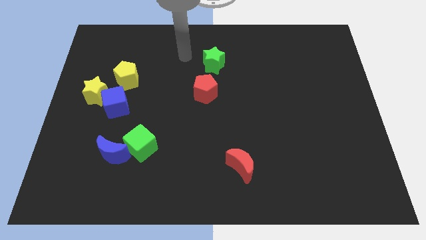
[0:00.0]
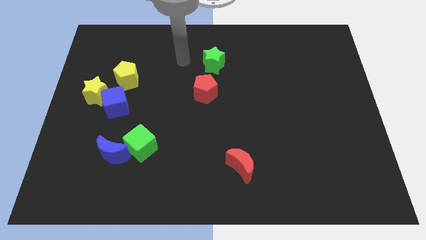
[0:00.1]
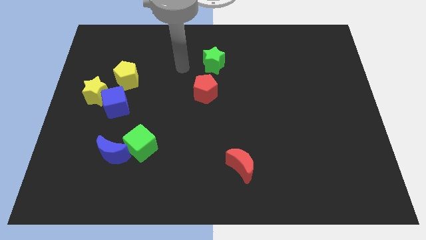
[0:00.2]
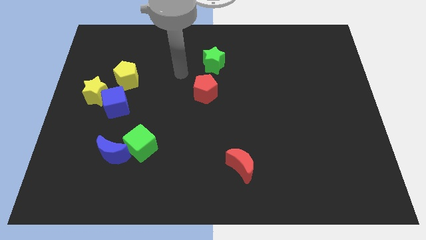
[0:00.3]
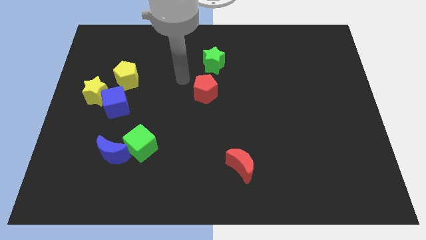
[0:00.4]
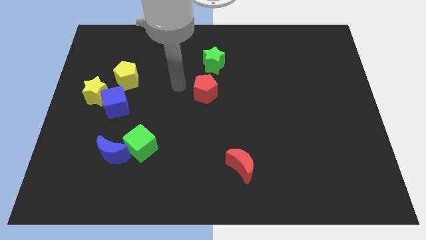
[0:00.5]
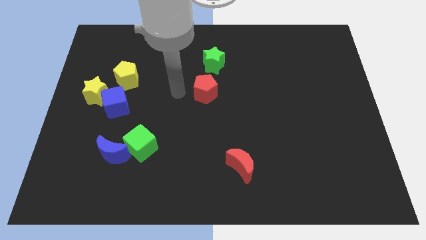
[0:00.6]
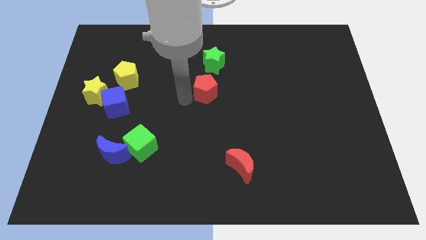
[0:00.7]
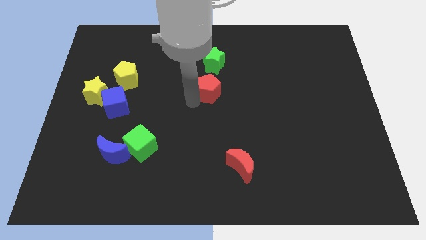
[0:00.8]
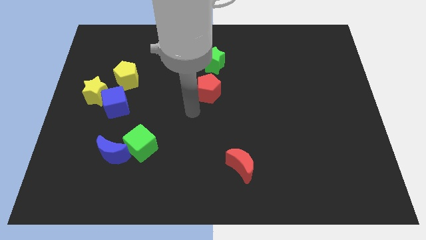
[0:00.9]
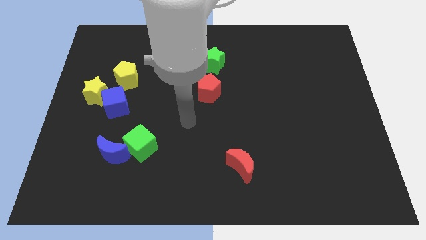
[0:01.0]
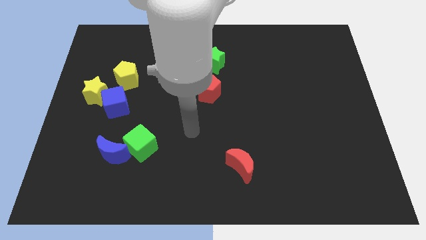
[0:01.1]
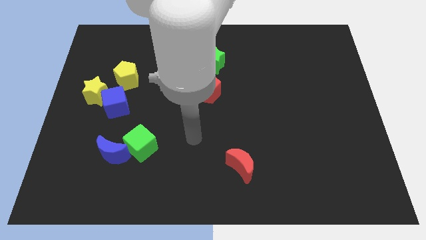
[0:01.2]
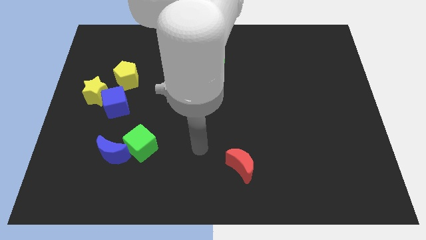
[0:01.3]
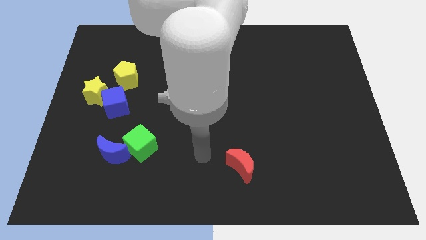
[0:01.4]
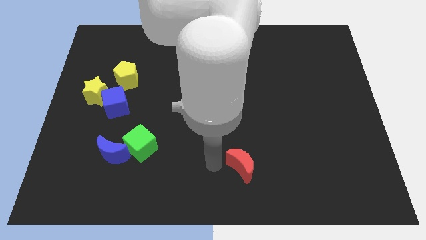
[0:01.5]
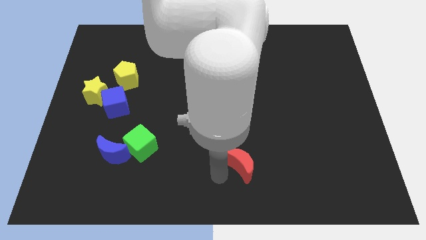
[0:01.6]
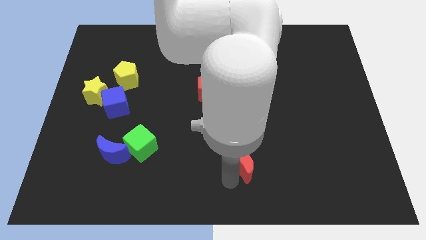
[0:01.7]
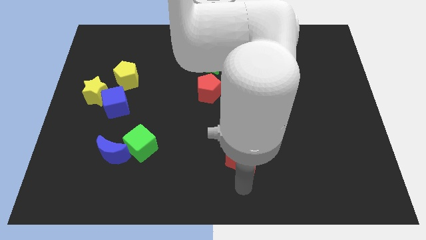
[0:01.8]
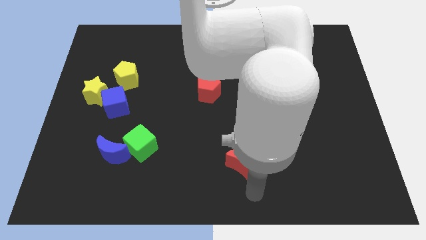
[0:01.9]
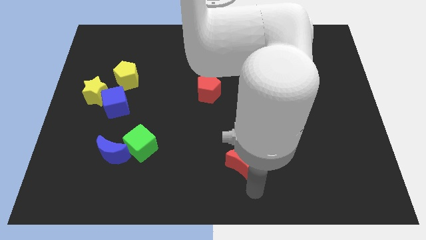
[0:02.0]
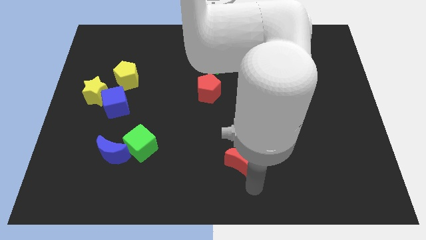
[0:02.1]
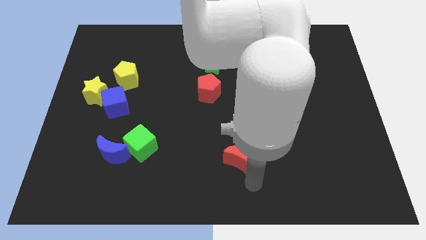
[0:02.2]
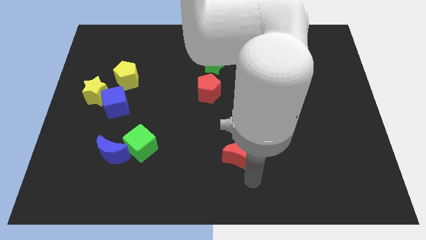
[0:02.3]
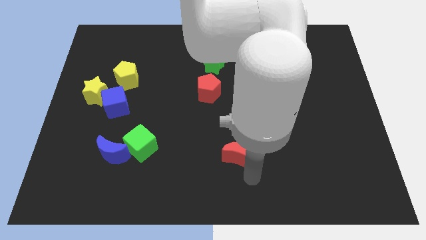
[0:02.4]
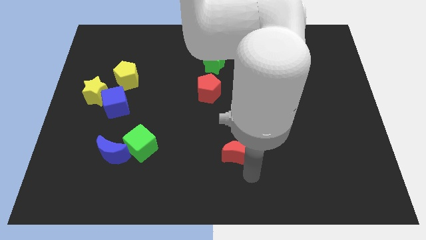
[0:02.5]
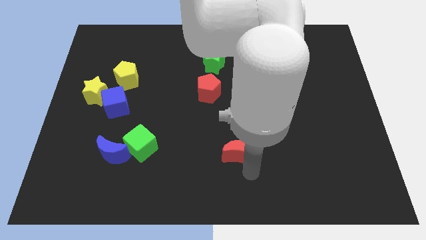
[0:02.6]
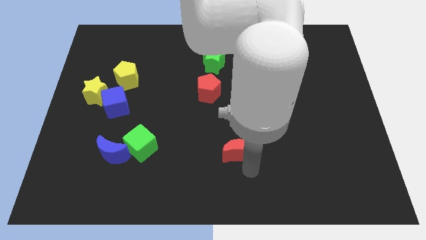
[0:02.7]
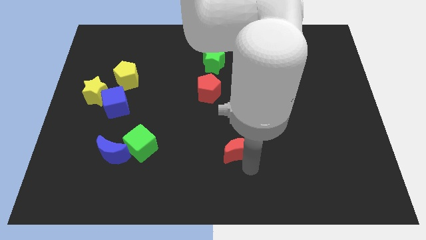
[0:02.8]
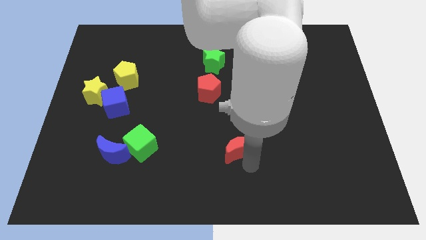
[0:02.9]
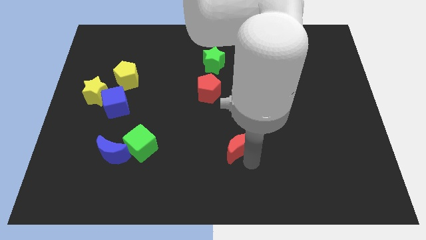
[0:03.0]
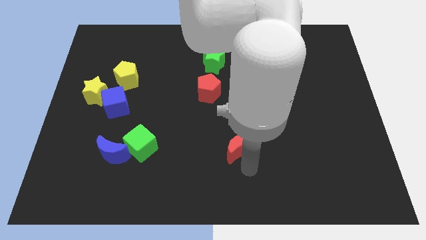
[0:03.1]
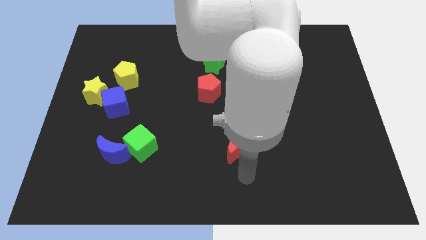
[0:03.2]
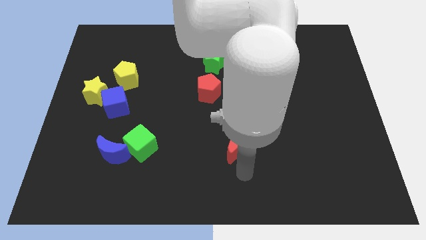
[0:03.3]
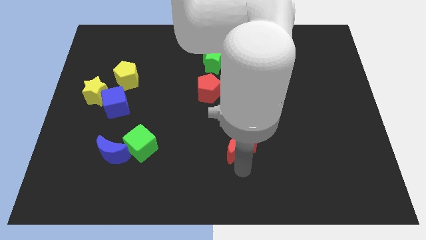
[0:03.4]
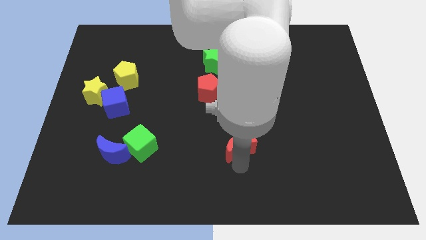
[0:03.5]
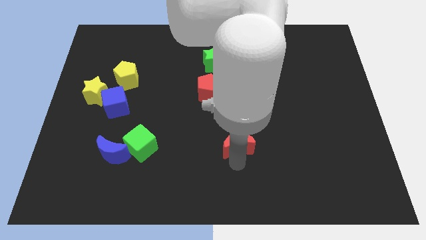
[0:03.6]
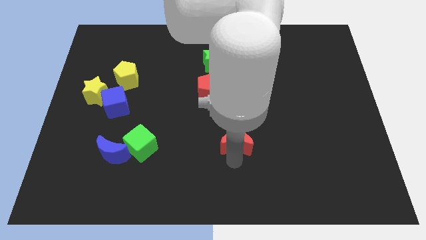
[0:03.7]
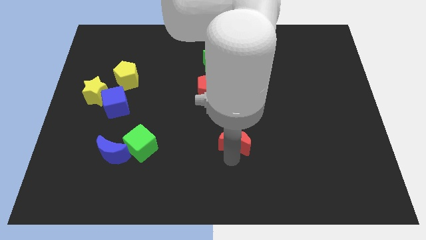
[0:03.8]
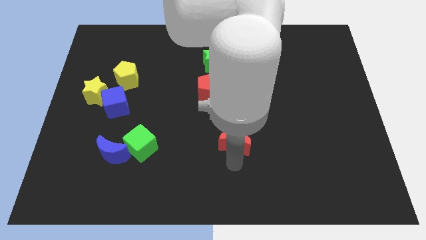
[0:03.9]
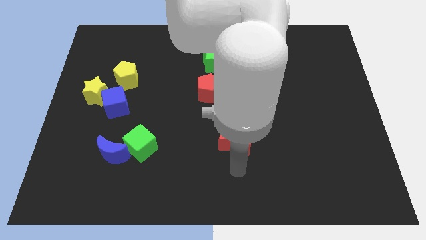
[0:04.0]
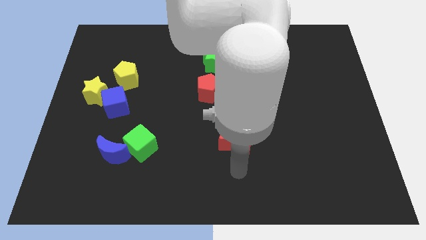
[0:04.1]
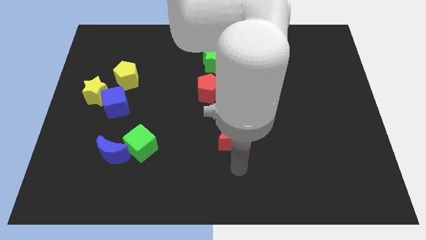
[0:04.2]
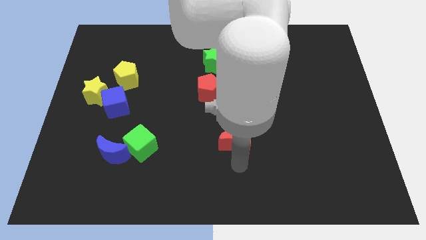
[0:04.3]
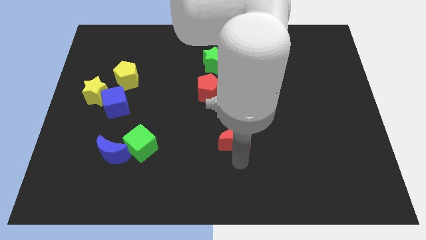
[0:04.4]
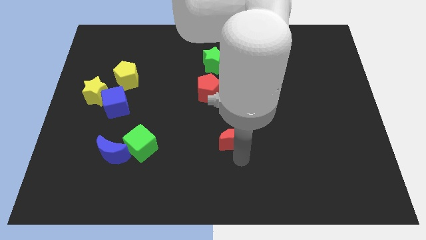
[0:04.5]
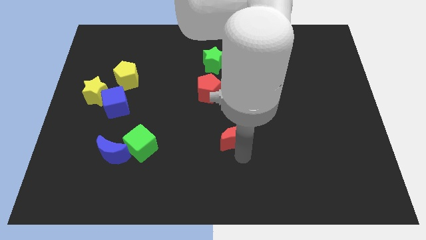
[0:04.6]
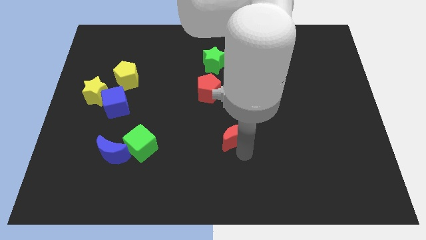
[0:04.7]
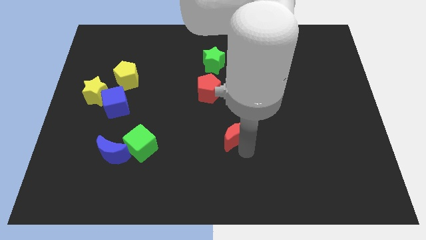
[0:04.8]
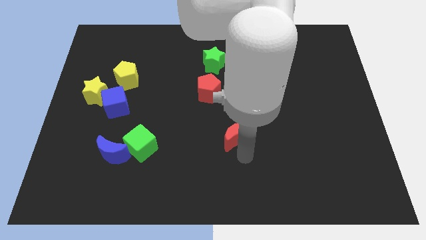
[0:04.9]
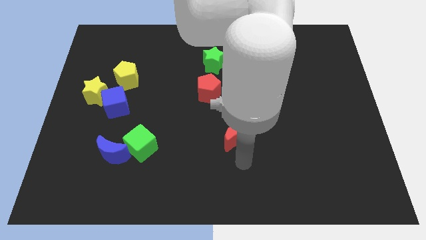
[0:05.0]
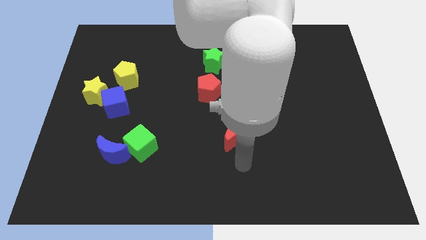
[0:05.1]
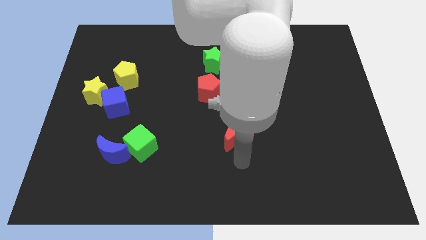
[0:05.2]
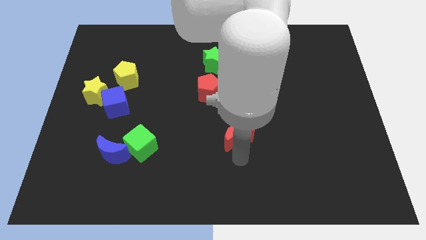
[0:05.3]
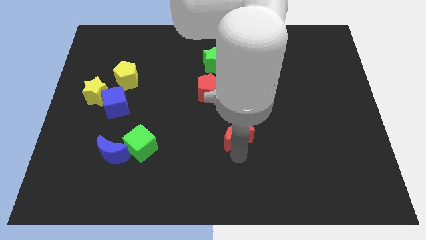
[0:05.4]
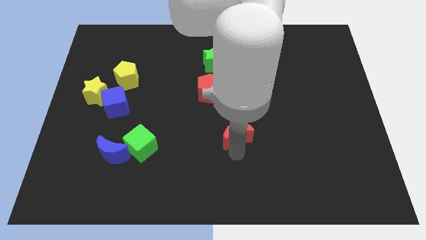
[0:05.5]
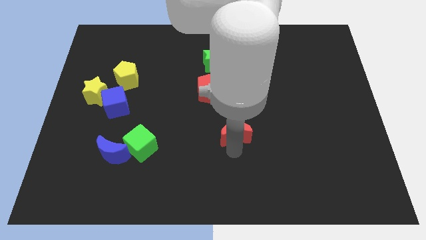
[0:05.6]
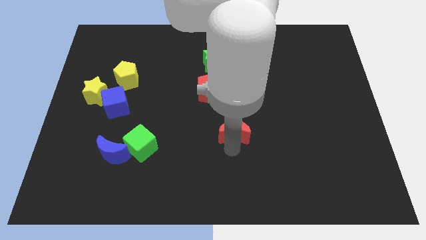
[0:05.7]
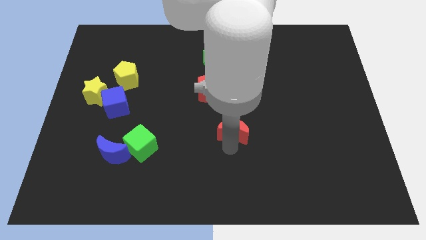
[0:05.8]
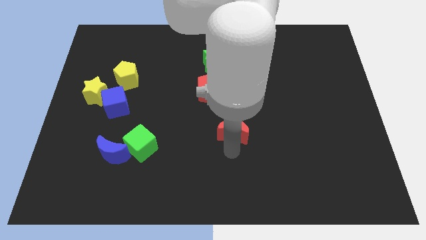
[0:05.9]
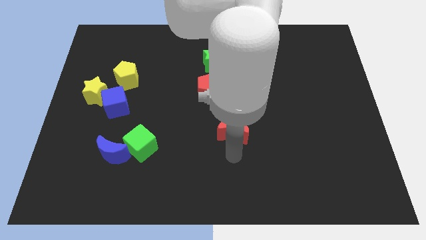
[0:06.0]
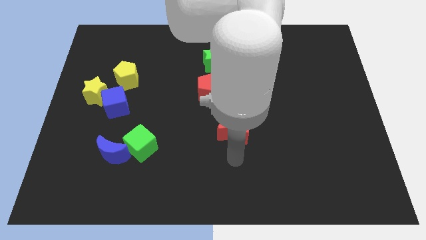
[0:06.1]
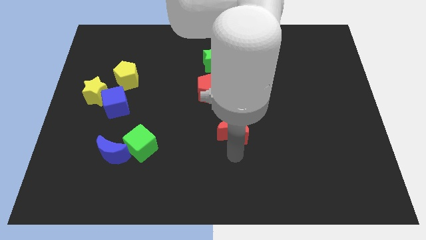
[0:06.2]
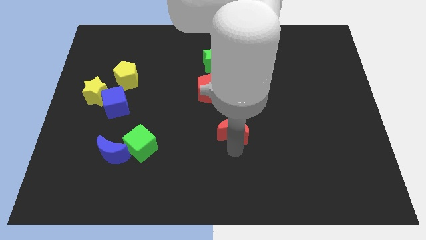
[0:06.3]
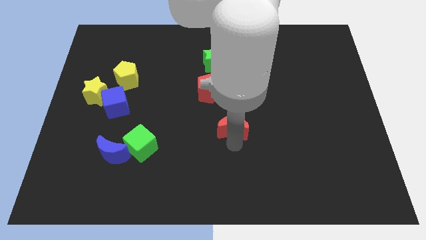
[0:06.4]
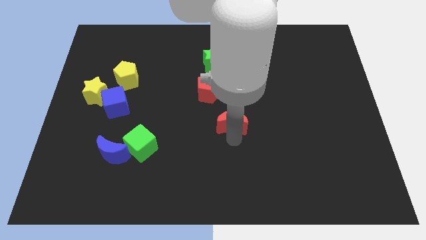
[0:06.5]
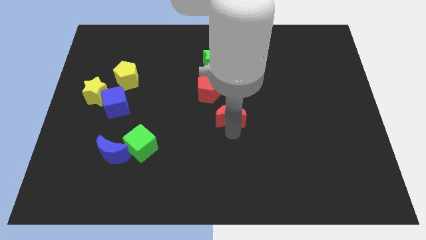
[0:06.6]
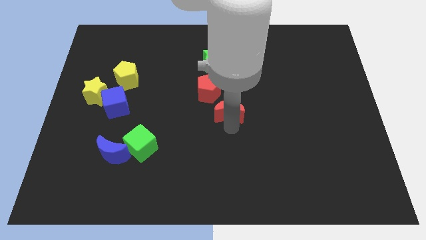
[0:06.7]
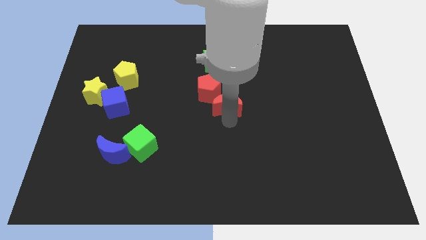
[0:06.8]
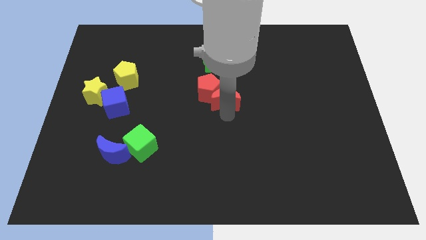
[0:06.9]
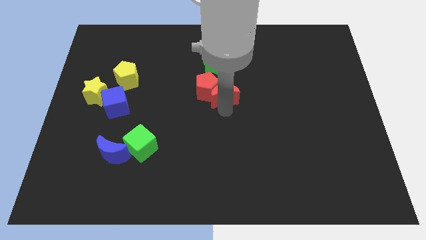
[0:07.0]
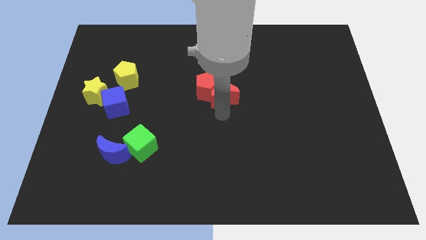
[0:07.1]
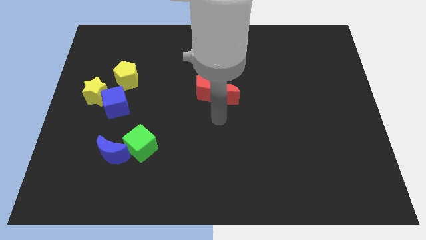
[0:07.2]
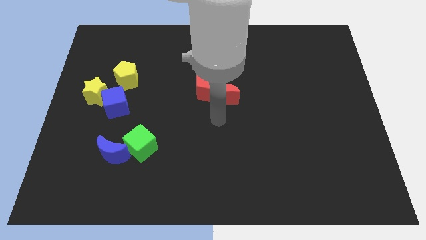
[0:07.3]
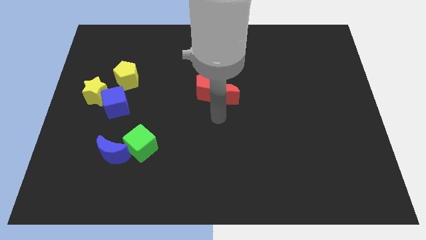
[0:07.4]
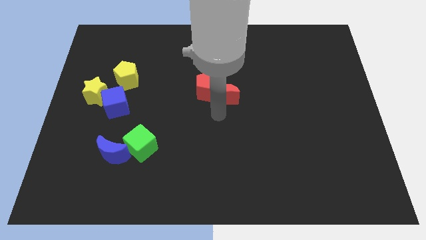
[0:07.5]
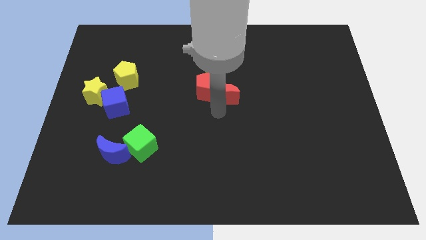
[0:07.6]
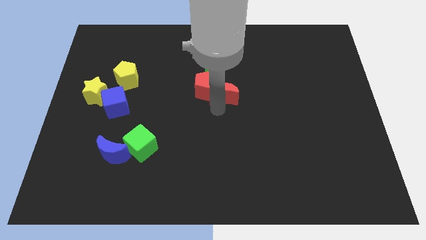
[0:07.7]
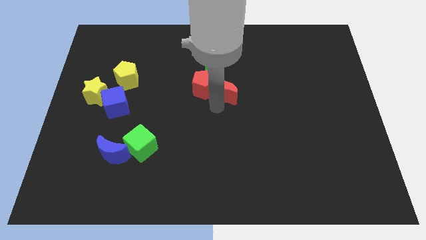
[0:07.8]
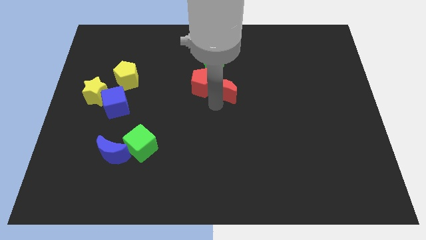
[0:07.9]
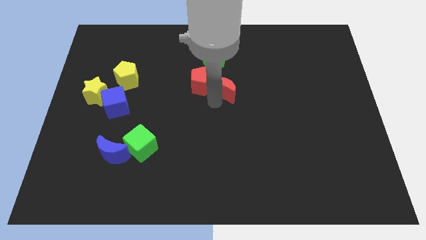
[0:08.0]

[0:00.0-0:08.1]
move the red moon up
